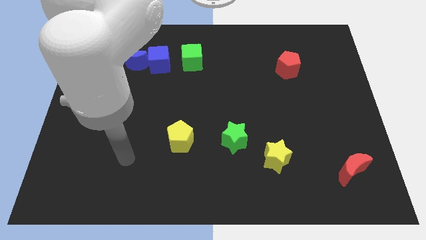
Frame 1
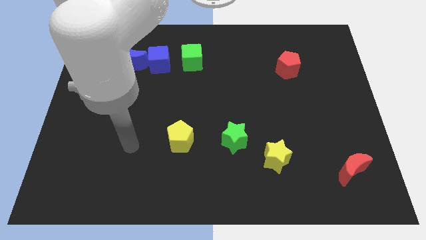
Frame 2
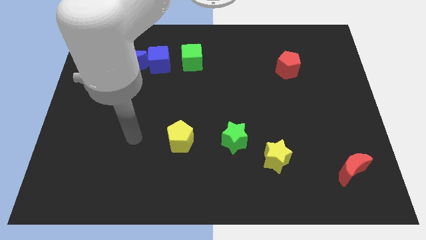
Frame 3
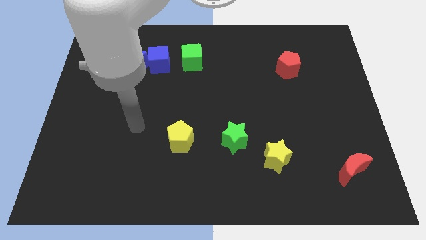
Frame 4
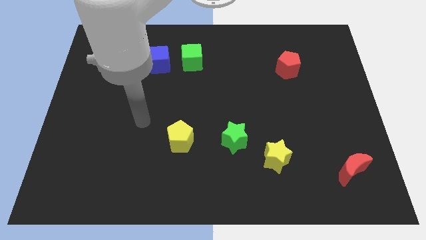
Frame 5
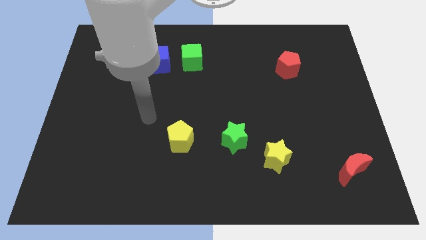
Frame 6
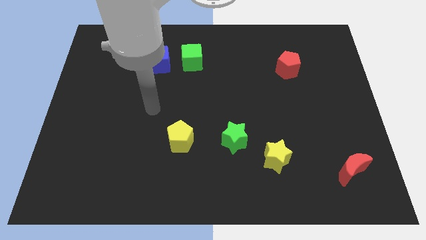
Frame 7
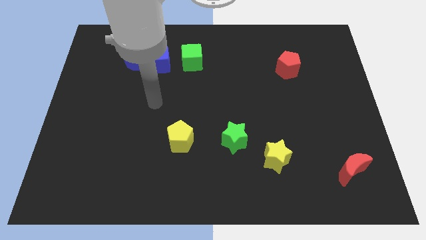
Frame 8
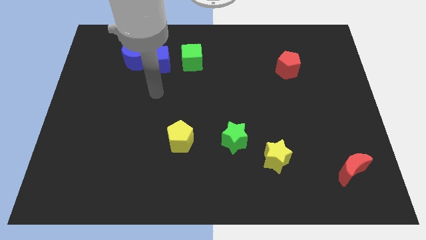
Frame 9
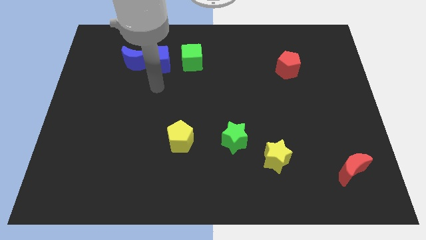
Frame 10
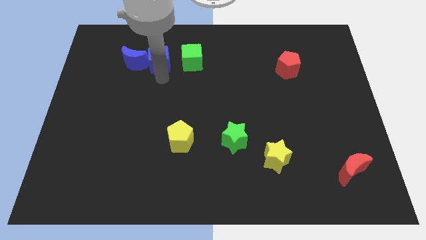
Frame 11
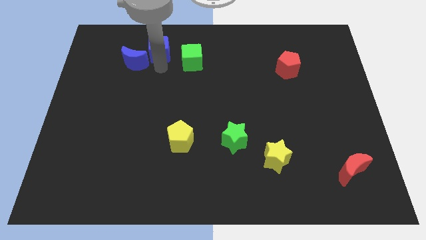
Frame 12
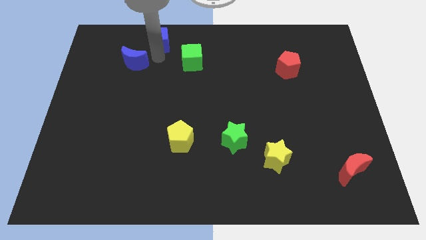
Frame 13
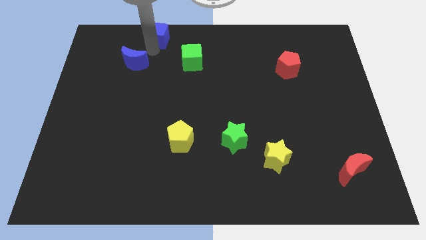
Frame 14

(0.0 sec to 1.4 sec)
move the blue moon away from the blue cube

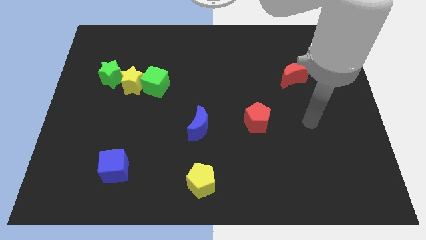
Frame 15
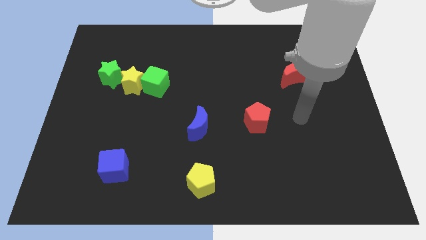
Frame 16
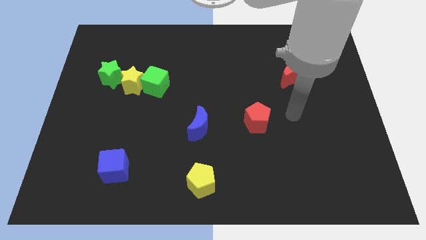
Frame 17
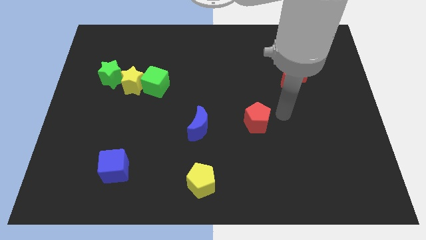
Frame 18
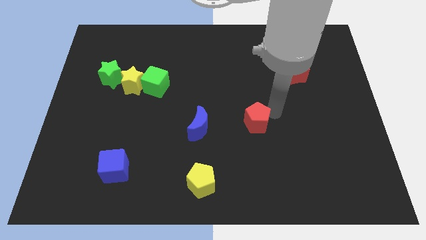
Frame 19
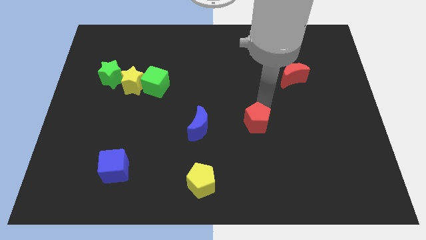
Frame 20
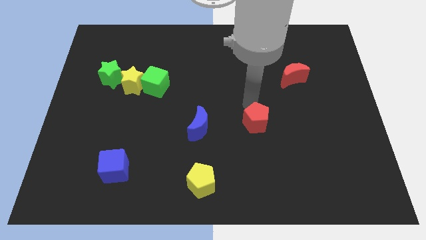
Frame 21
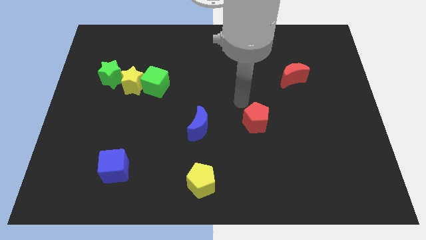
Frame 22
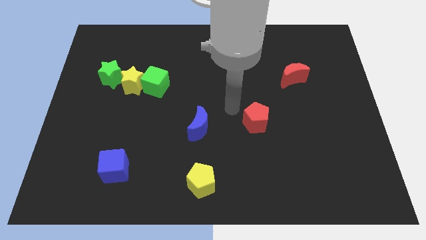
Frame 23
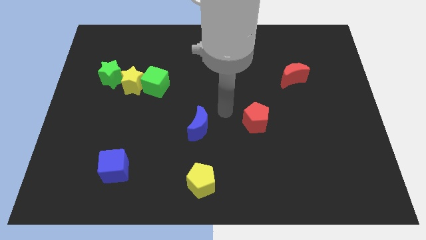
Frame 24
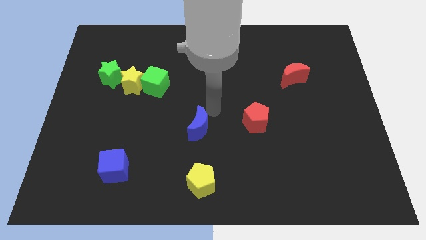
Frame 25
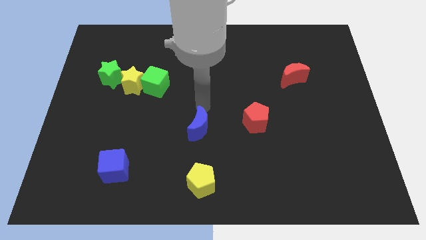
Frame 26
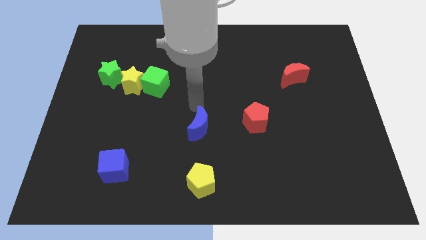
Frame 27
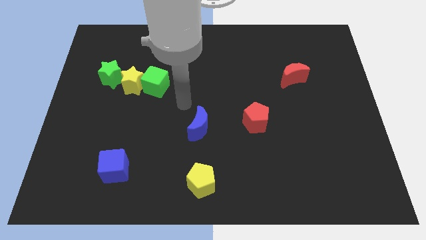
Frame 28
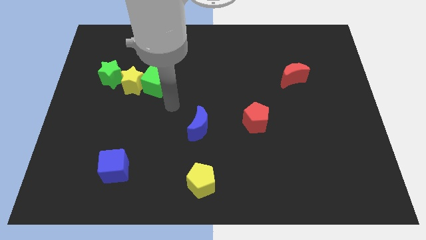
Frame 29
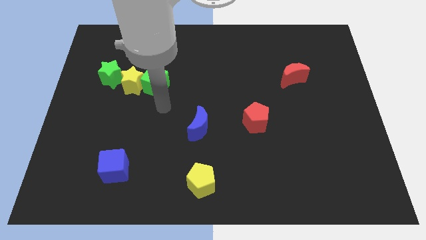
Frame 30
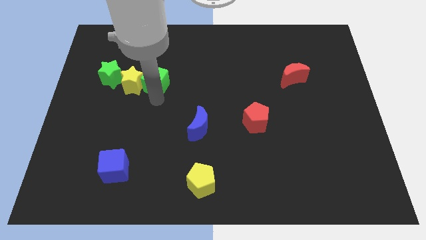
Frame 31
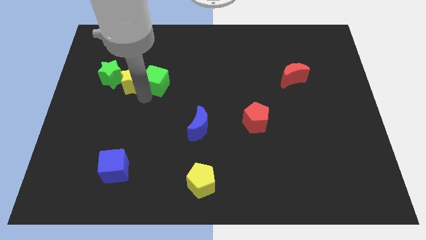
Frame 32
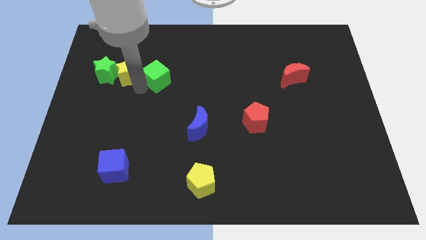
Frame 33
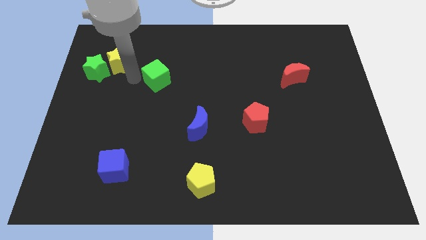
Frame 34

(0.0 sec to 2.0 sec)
pull the green cube apart from the yellow star

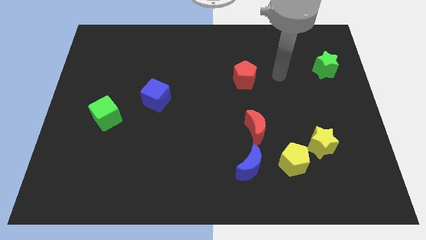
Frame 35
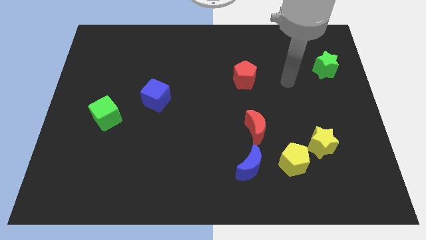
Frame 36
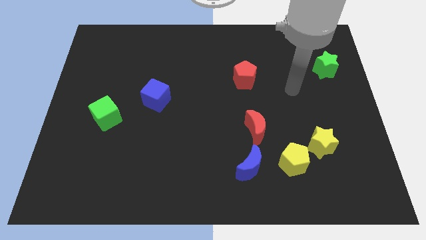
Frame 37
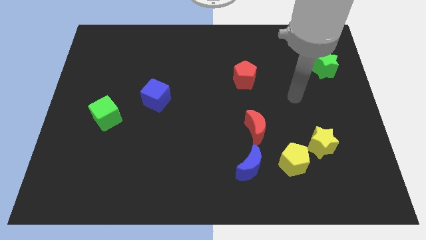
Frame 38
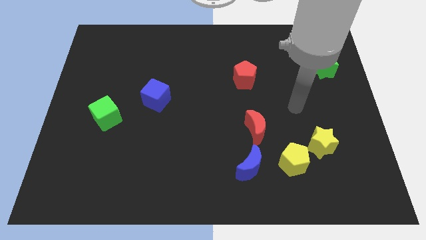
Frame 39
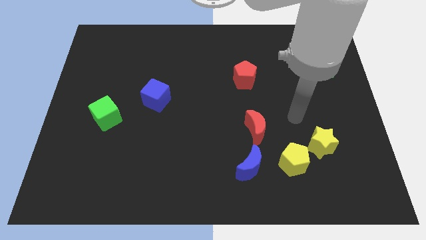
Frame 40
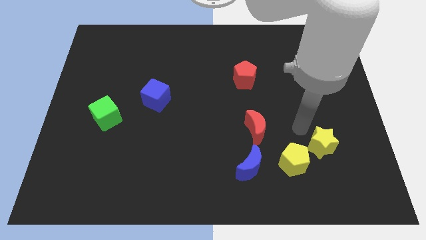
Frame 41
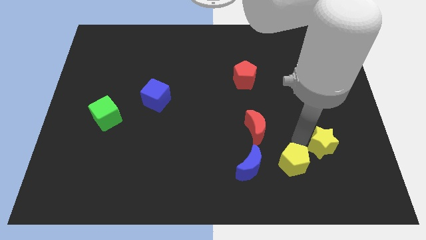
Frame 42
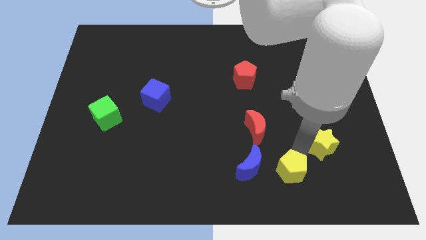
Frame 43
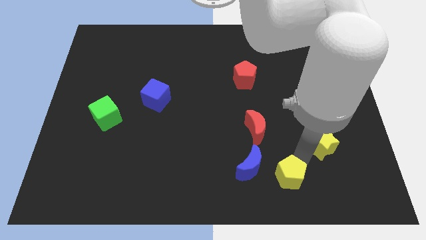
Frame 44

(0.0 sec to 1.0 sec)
move the yellow star away from the yellow pentagon

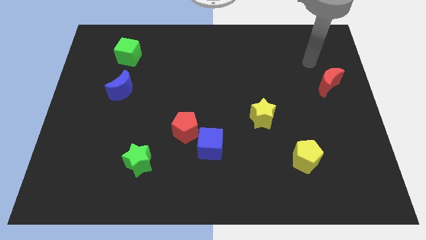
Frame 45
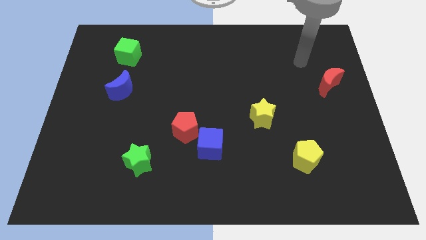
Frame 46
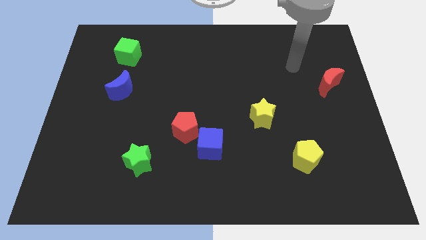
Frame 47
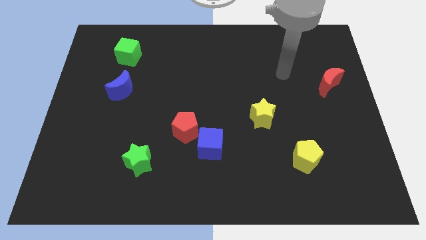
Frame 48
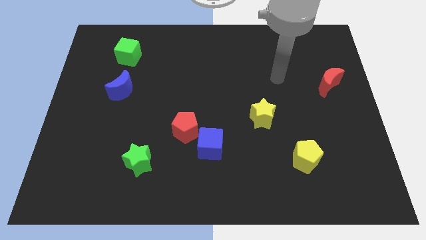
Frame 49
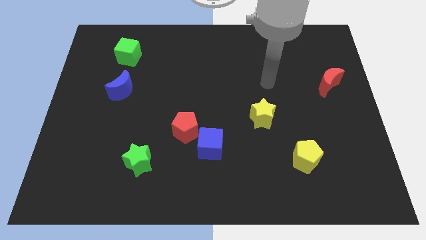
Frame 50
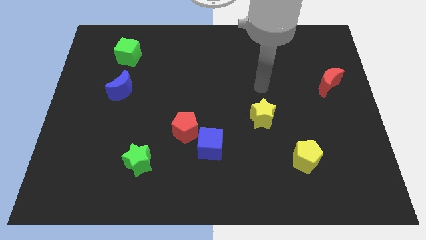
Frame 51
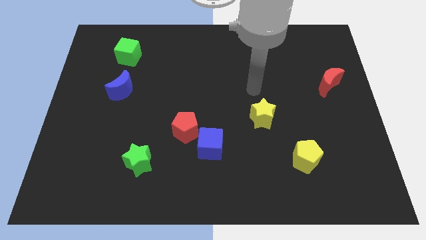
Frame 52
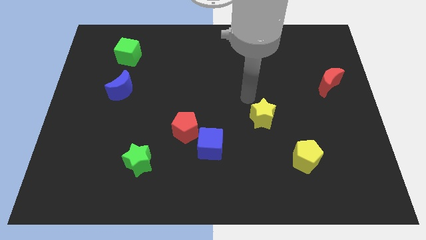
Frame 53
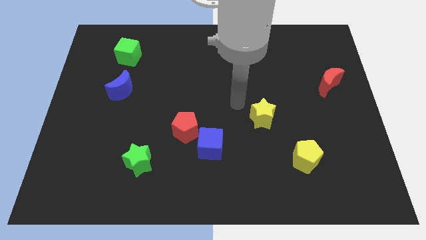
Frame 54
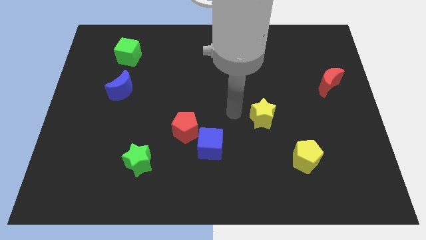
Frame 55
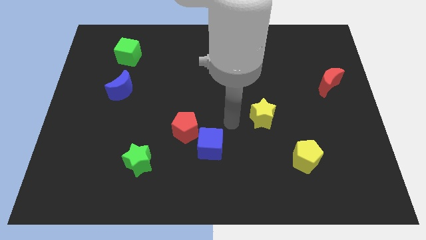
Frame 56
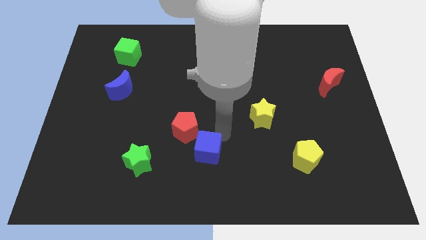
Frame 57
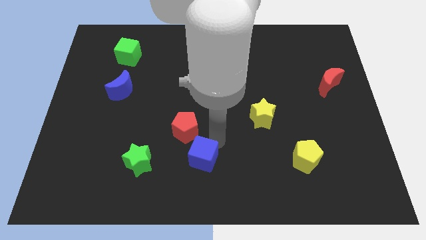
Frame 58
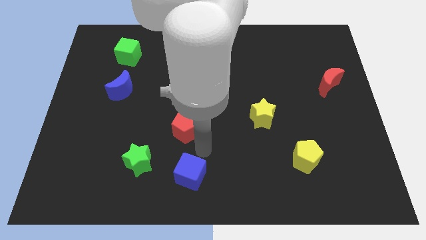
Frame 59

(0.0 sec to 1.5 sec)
pull the red pentagon apart from the blue cube

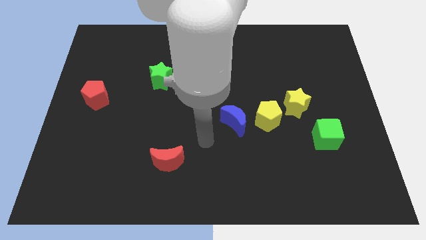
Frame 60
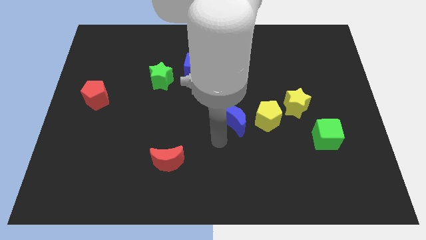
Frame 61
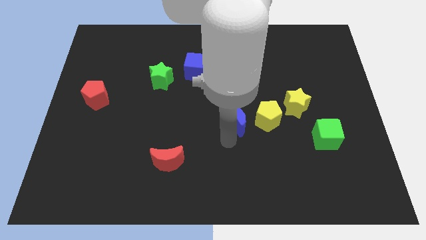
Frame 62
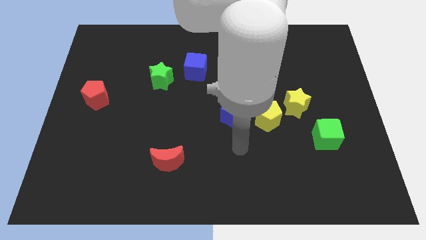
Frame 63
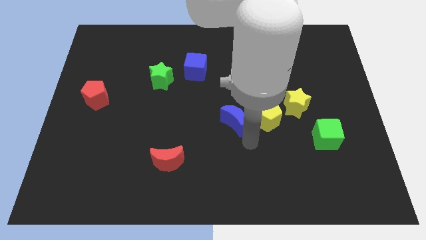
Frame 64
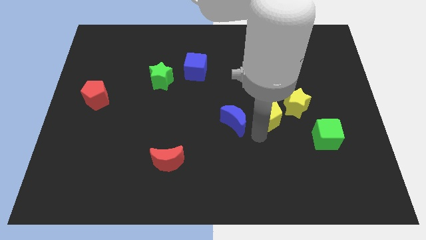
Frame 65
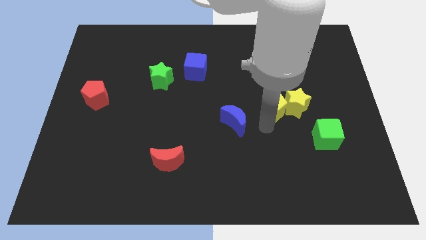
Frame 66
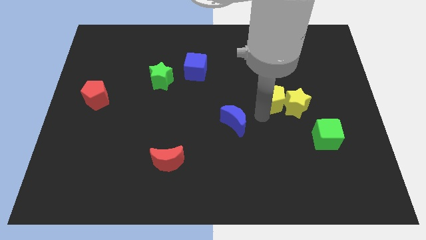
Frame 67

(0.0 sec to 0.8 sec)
separate the blue moon from the yellow pentagon

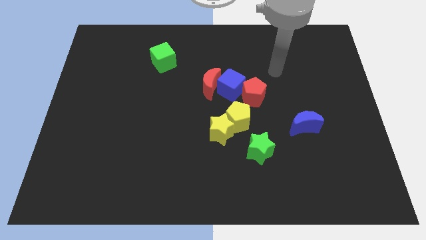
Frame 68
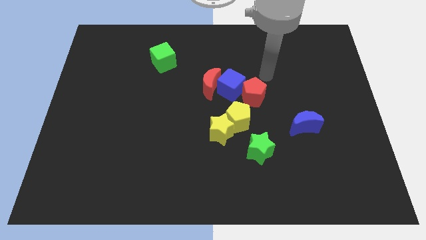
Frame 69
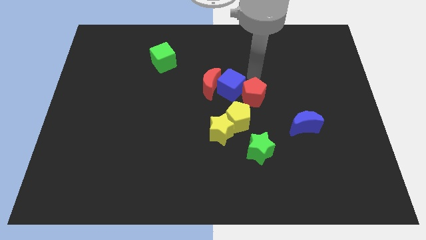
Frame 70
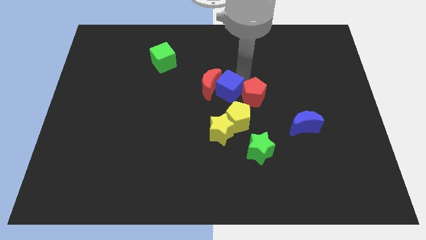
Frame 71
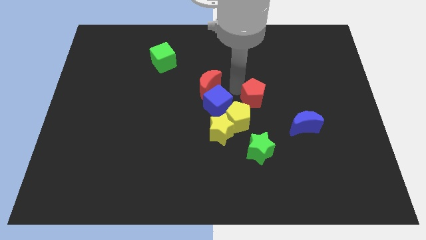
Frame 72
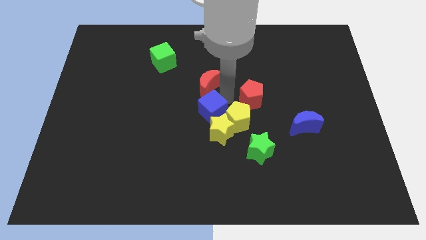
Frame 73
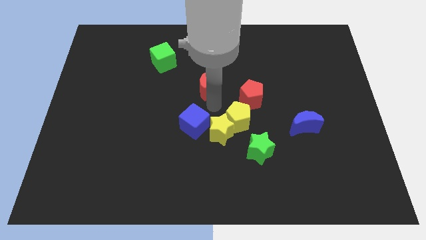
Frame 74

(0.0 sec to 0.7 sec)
separate the red moon from the blue cube

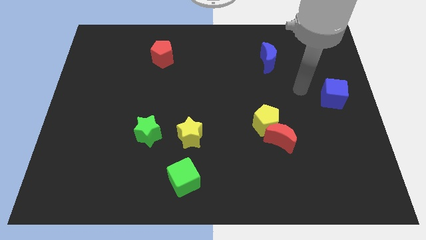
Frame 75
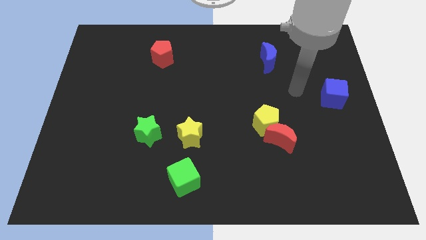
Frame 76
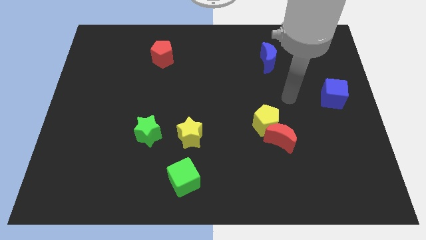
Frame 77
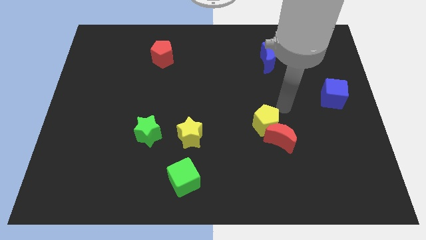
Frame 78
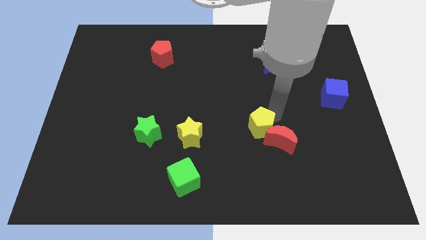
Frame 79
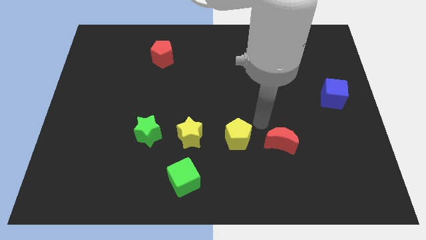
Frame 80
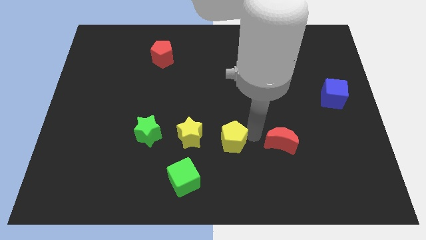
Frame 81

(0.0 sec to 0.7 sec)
pull the red moon apart from the yellow pentagon

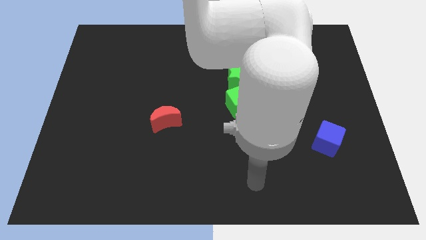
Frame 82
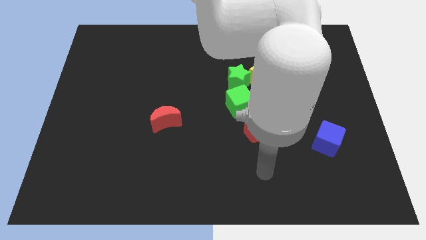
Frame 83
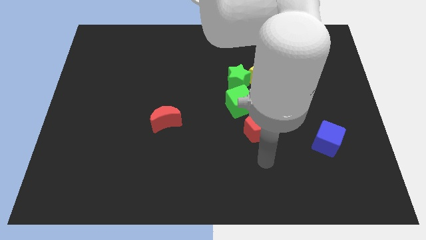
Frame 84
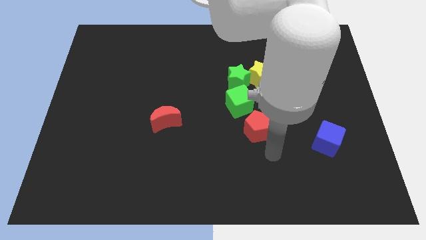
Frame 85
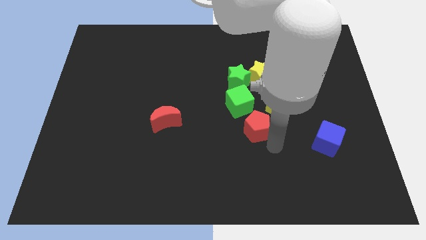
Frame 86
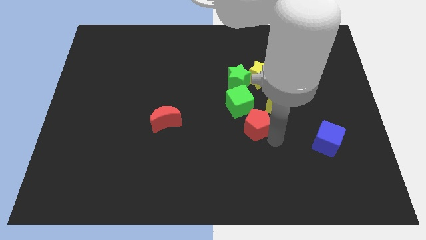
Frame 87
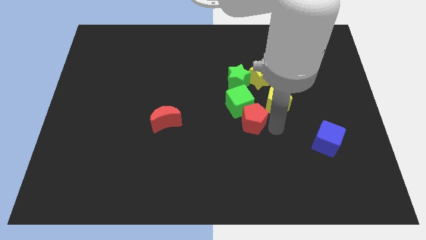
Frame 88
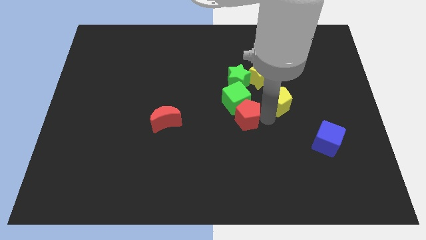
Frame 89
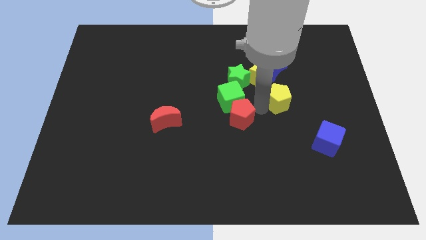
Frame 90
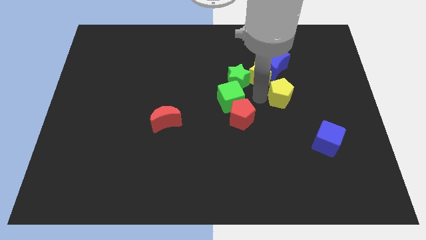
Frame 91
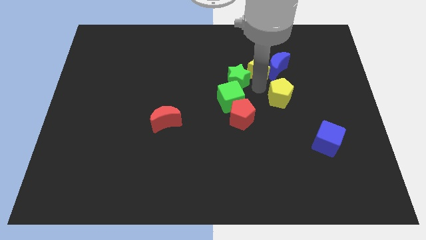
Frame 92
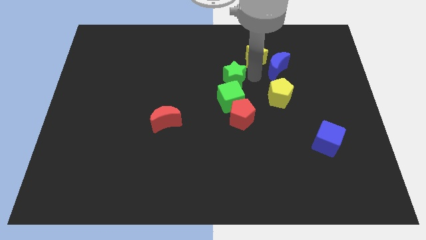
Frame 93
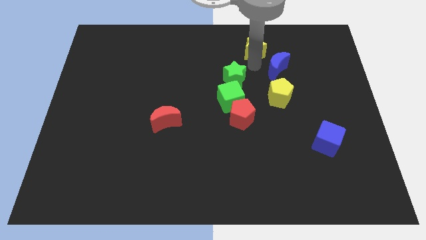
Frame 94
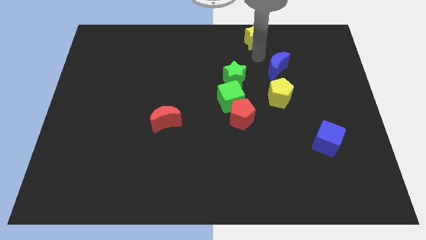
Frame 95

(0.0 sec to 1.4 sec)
move the blue moon away from the yellow star

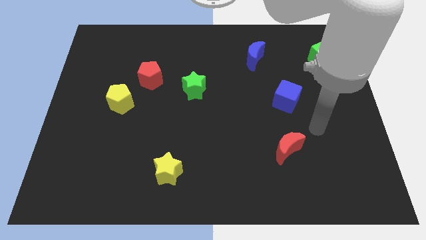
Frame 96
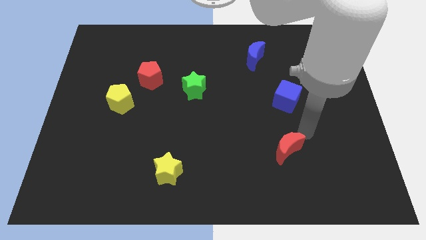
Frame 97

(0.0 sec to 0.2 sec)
pull the red pentagon apart from the yellow pentagon
